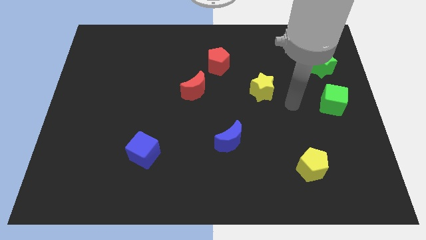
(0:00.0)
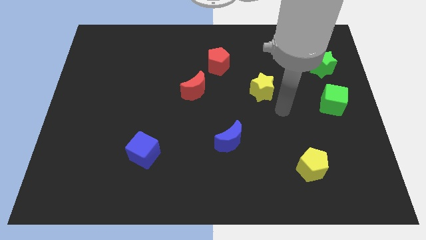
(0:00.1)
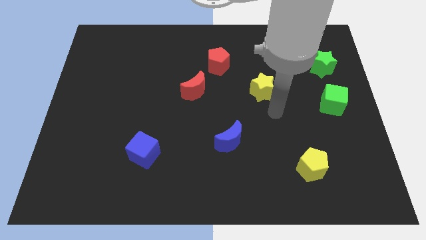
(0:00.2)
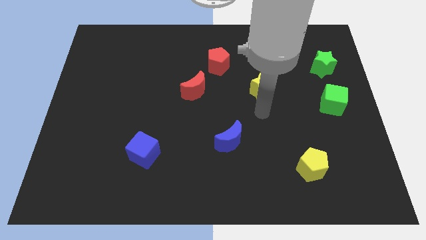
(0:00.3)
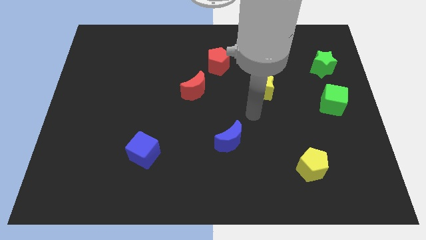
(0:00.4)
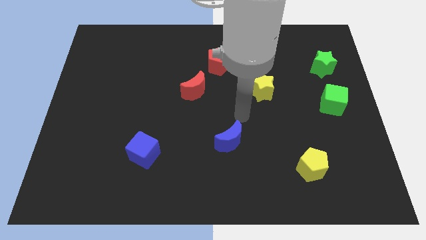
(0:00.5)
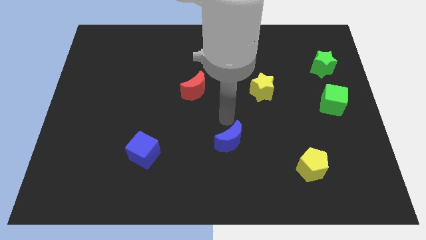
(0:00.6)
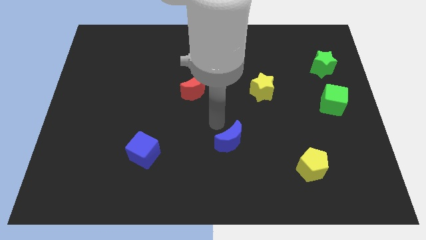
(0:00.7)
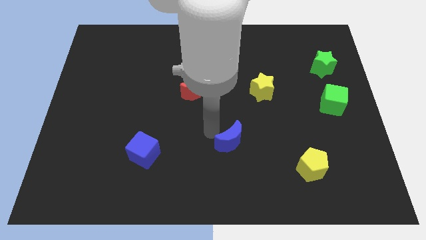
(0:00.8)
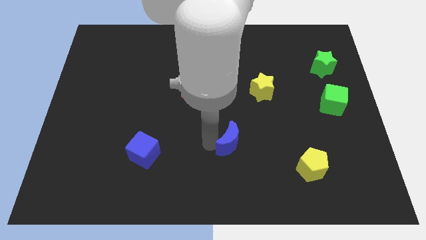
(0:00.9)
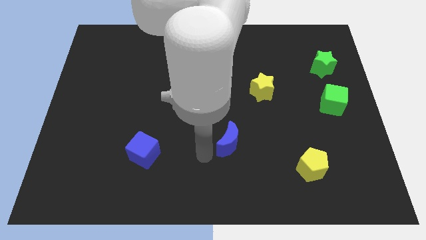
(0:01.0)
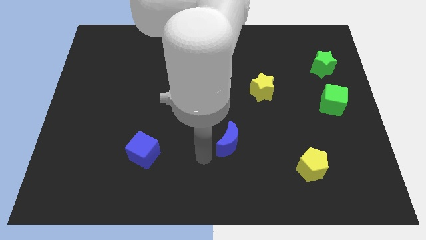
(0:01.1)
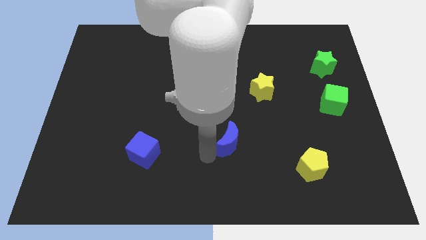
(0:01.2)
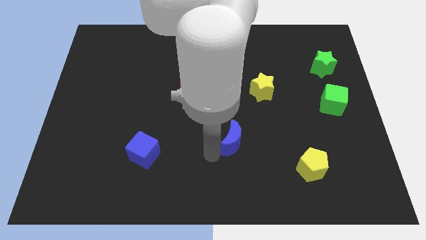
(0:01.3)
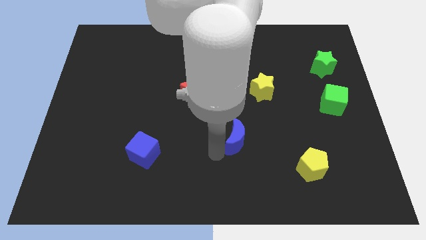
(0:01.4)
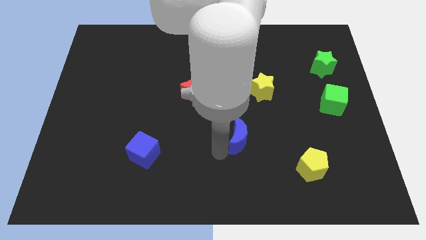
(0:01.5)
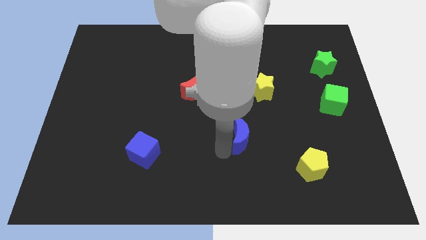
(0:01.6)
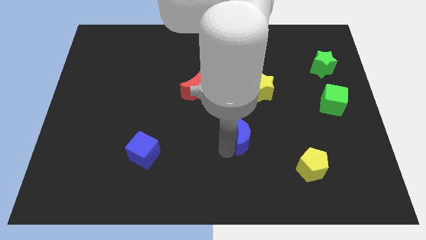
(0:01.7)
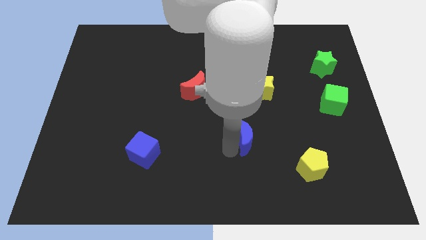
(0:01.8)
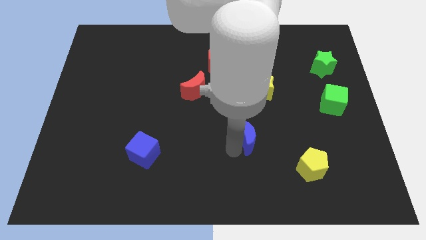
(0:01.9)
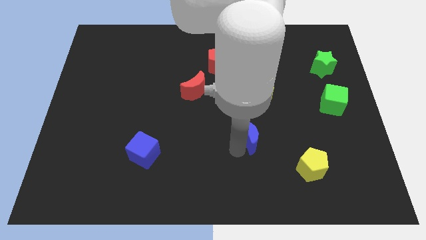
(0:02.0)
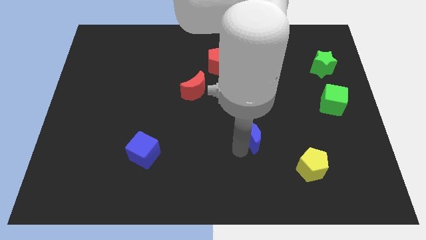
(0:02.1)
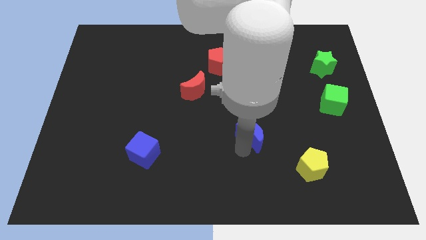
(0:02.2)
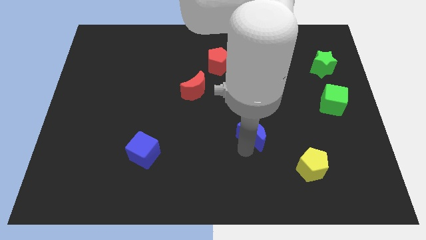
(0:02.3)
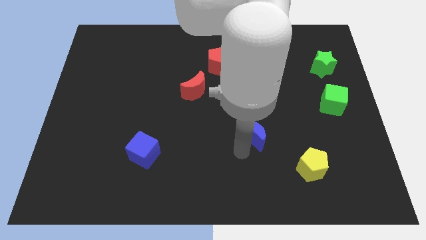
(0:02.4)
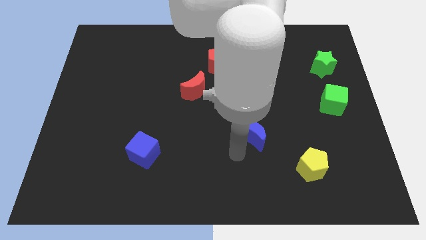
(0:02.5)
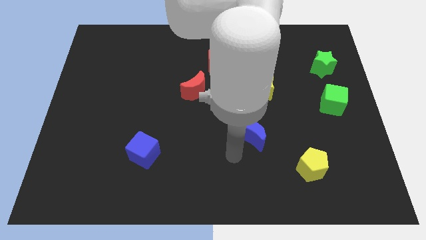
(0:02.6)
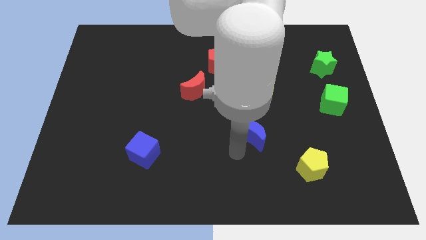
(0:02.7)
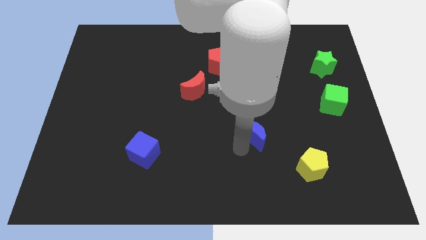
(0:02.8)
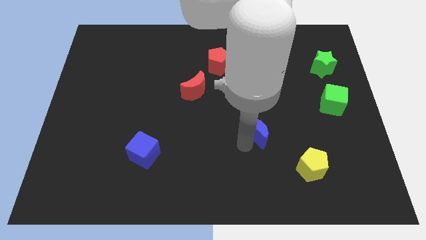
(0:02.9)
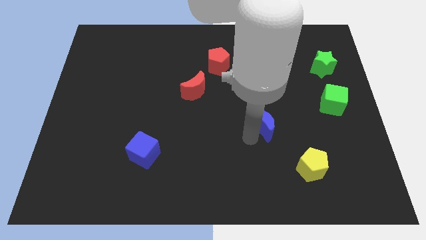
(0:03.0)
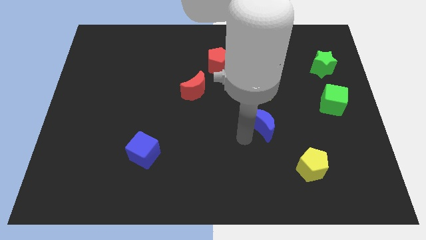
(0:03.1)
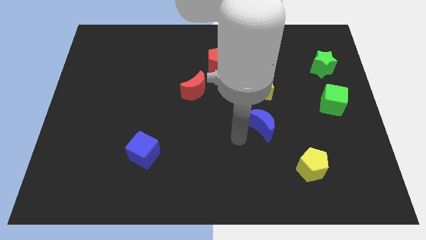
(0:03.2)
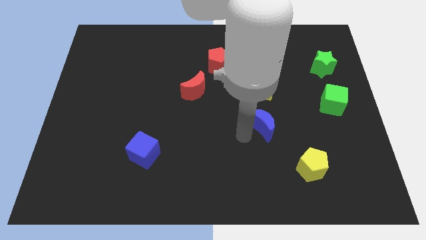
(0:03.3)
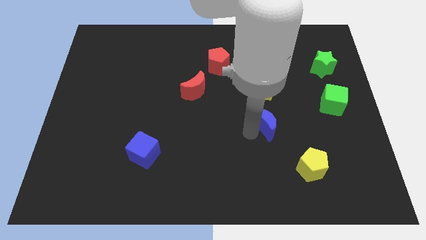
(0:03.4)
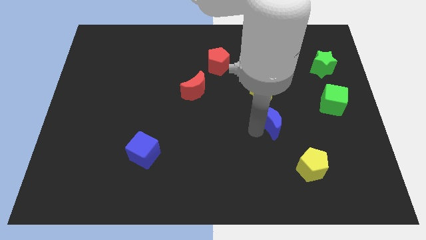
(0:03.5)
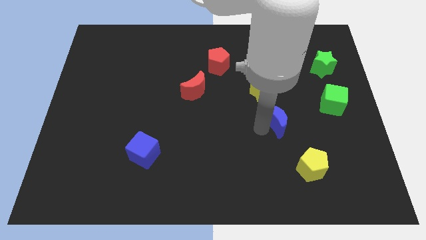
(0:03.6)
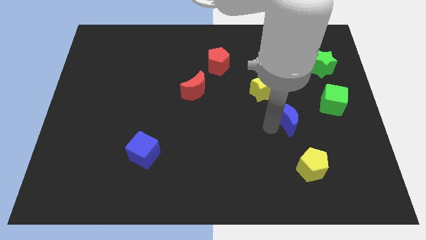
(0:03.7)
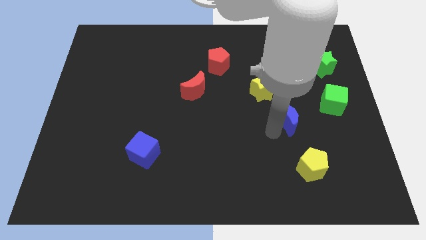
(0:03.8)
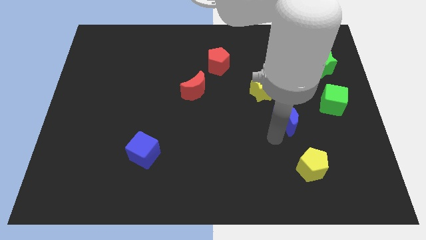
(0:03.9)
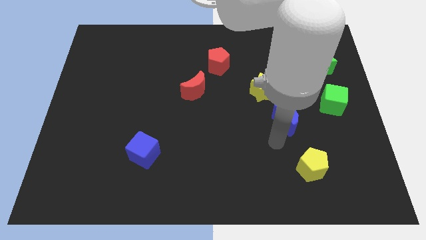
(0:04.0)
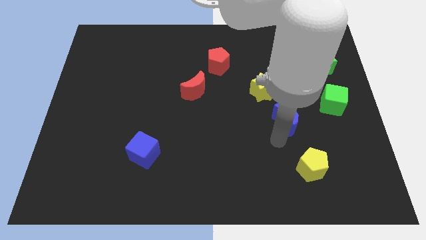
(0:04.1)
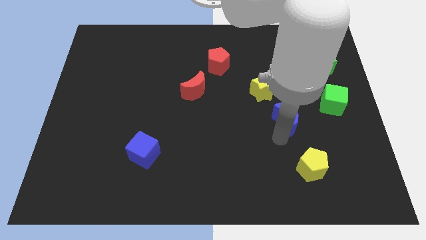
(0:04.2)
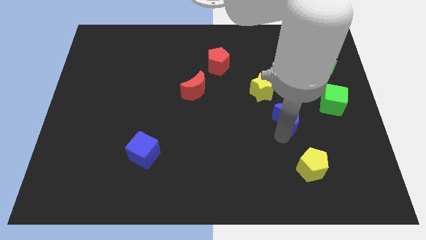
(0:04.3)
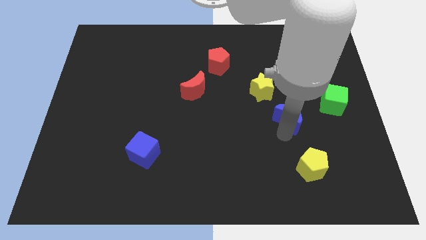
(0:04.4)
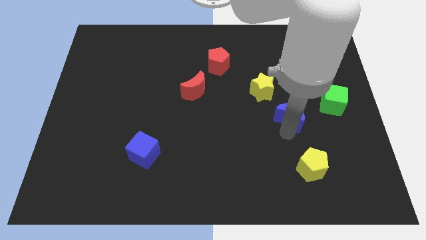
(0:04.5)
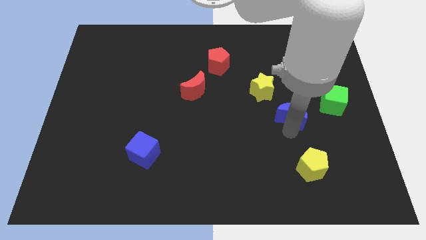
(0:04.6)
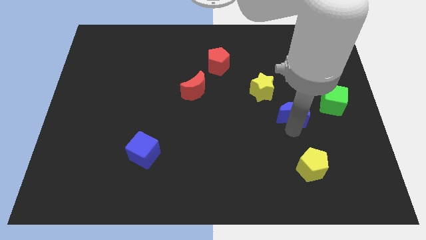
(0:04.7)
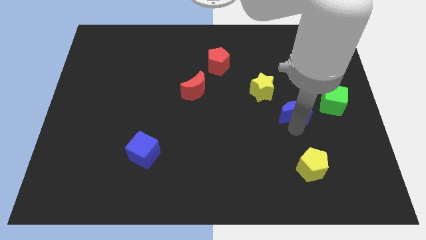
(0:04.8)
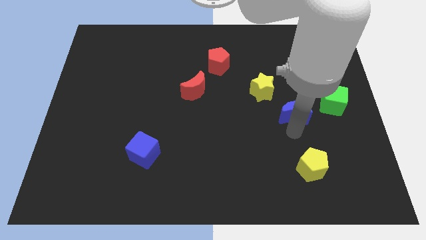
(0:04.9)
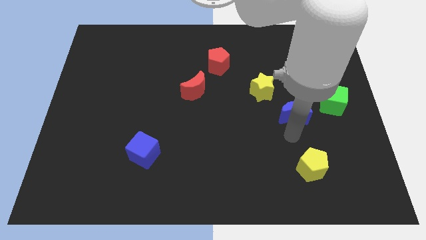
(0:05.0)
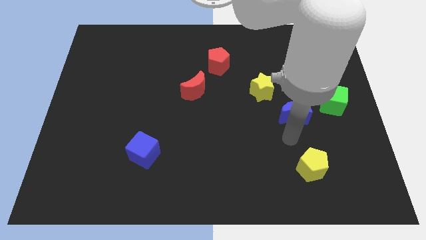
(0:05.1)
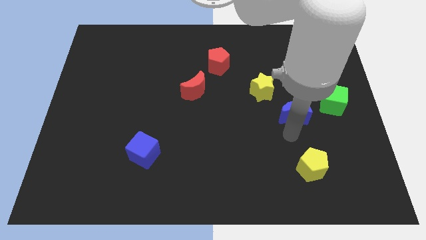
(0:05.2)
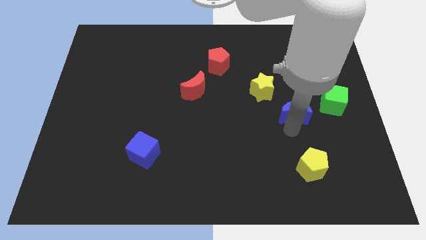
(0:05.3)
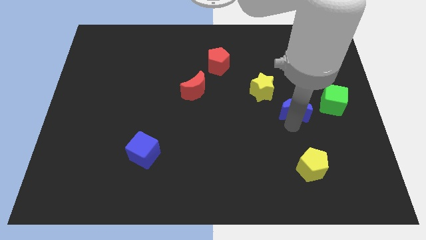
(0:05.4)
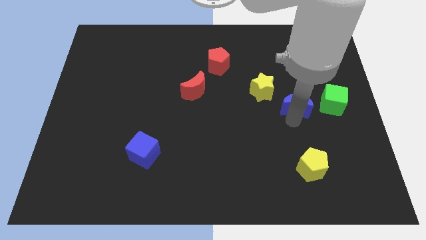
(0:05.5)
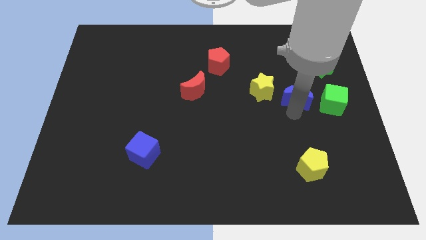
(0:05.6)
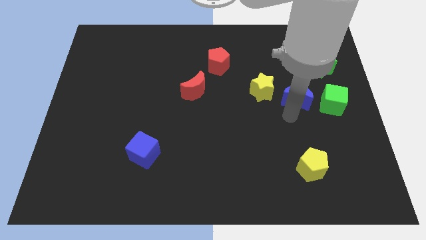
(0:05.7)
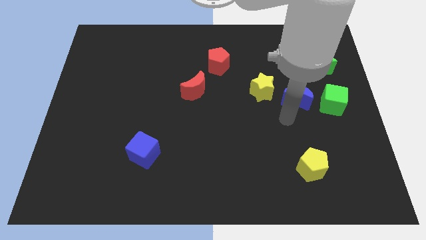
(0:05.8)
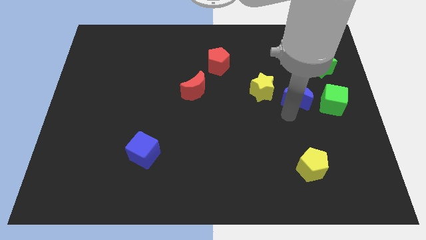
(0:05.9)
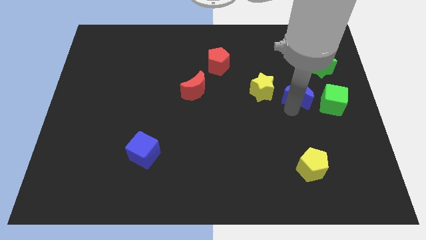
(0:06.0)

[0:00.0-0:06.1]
push the blue moon diagonally down and to the left of the green star

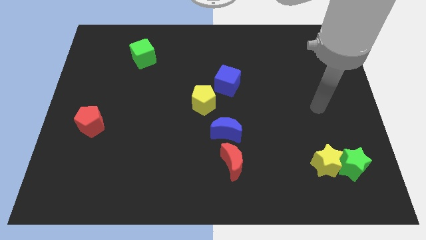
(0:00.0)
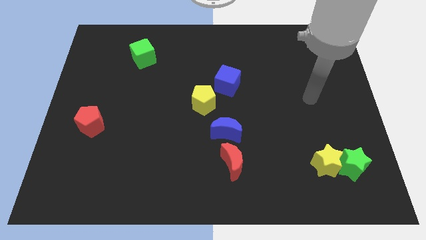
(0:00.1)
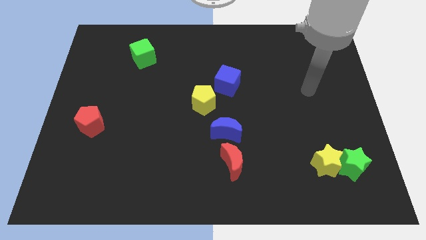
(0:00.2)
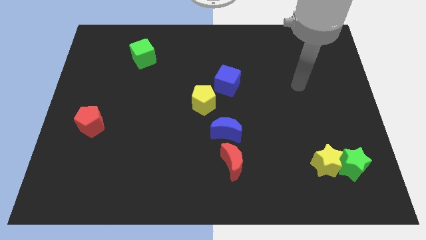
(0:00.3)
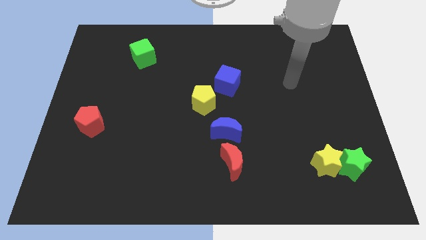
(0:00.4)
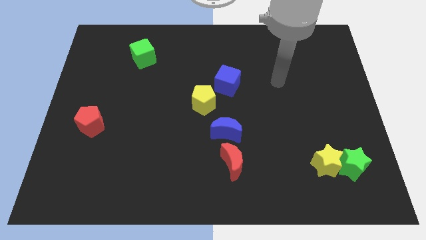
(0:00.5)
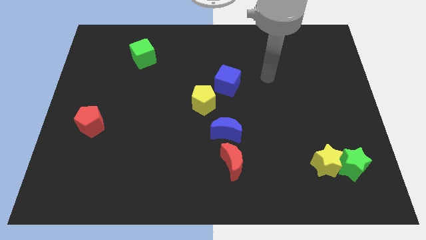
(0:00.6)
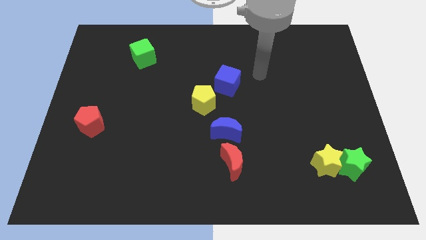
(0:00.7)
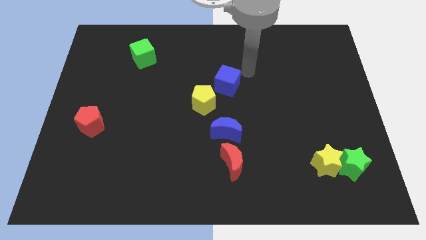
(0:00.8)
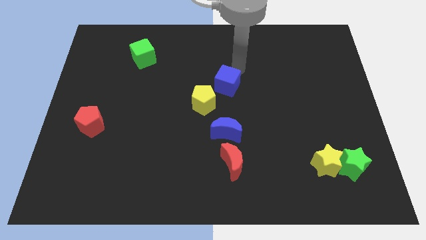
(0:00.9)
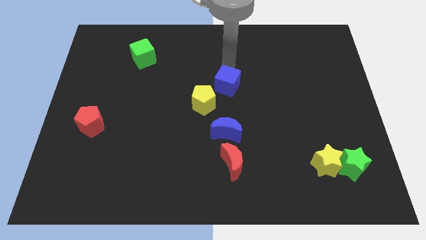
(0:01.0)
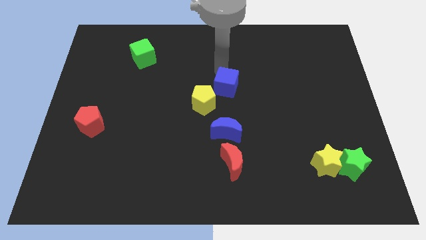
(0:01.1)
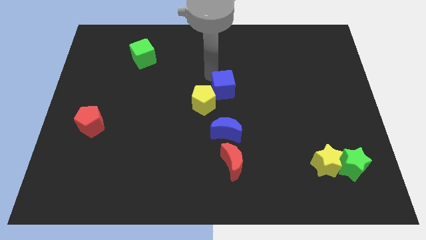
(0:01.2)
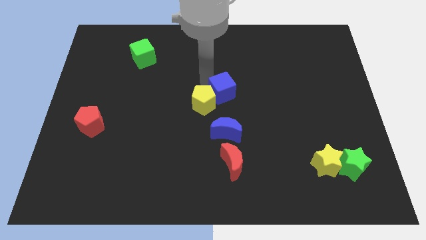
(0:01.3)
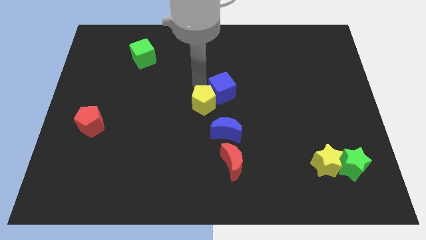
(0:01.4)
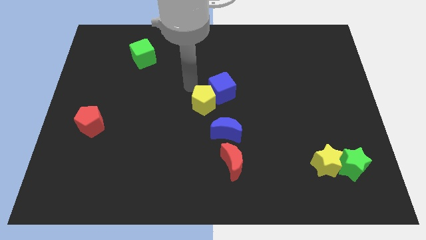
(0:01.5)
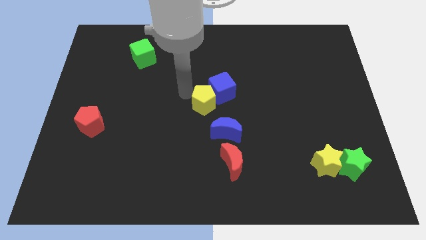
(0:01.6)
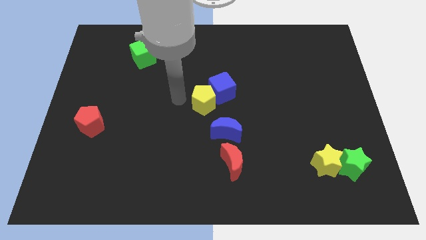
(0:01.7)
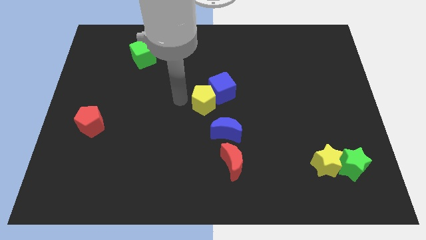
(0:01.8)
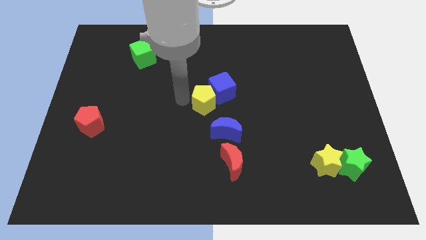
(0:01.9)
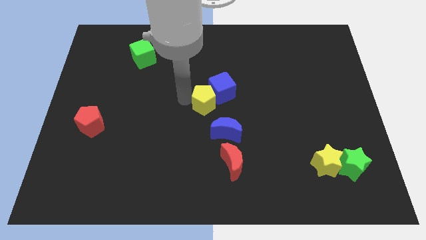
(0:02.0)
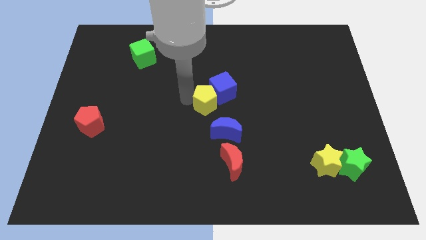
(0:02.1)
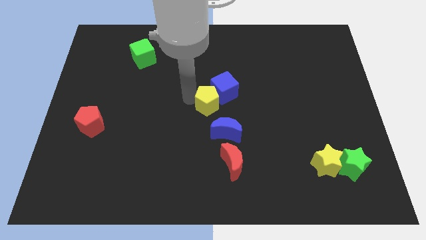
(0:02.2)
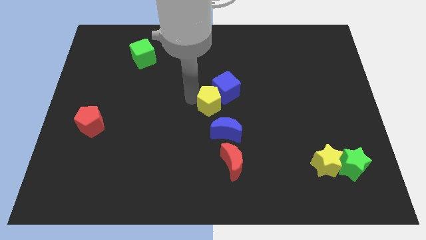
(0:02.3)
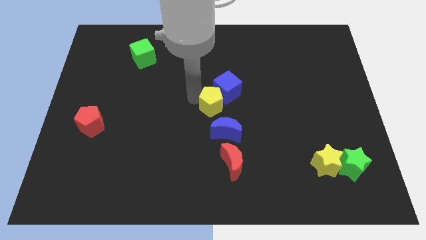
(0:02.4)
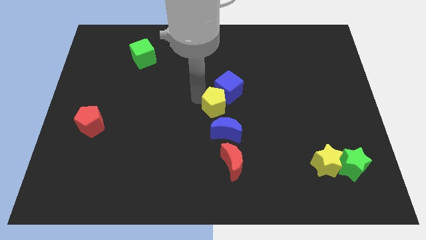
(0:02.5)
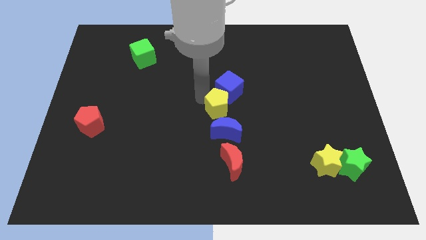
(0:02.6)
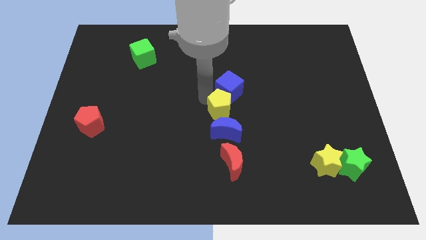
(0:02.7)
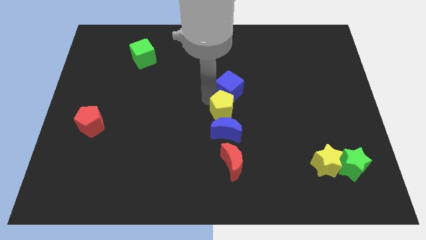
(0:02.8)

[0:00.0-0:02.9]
slide the yellow pentagon diagonally up and to the right of the blue moon
